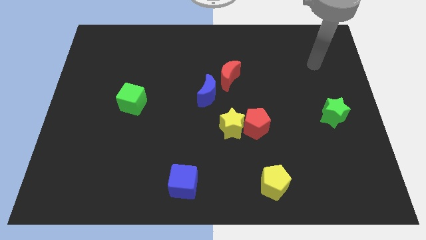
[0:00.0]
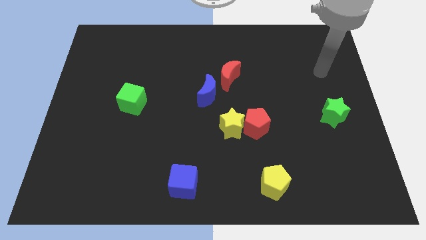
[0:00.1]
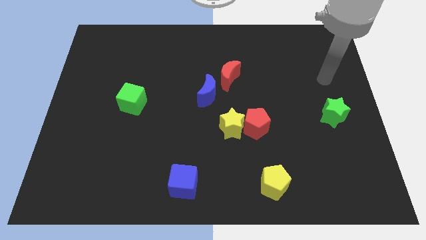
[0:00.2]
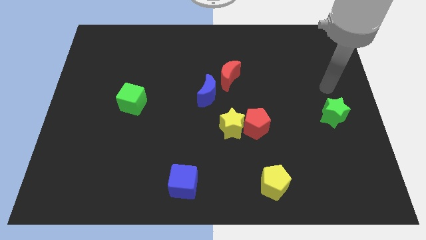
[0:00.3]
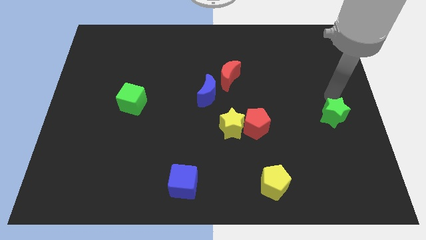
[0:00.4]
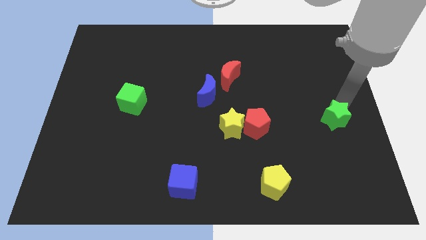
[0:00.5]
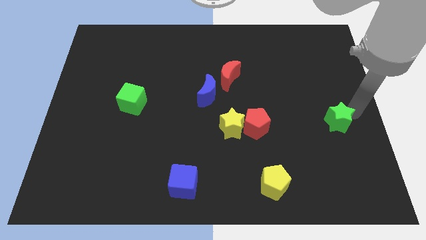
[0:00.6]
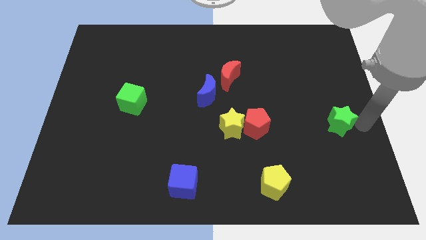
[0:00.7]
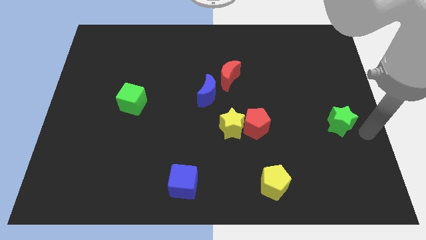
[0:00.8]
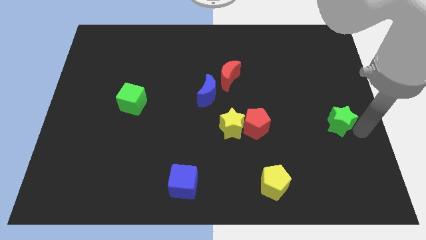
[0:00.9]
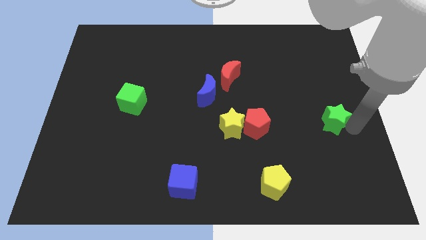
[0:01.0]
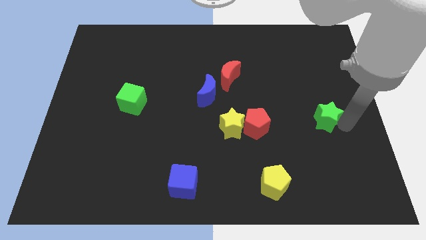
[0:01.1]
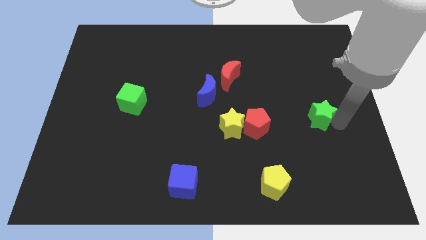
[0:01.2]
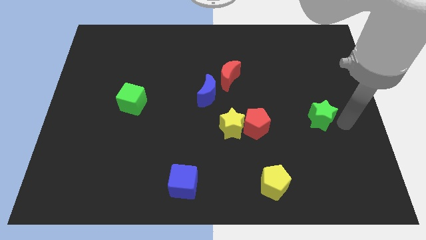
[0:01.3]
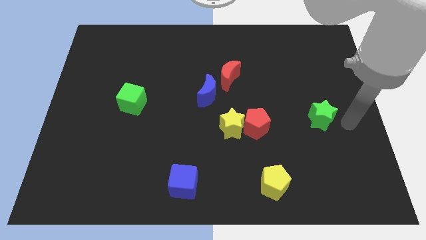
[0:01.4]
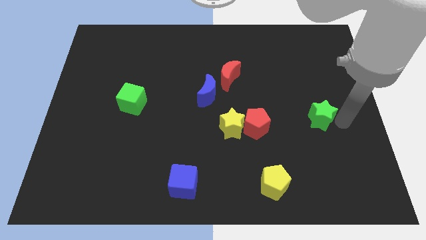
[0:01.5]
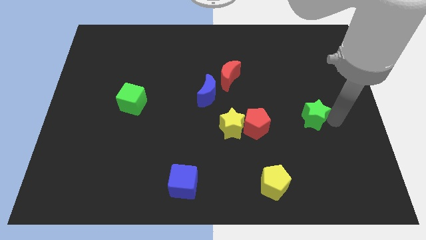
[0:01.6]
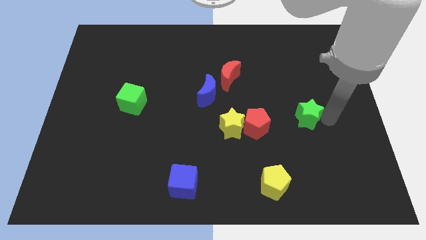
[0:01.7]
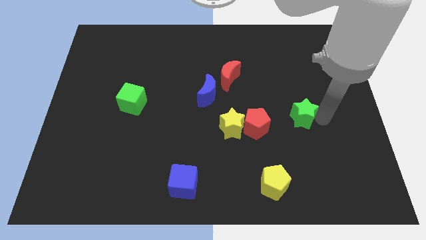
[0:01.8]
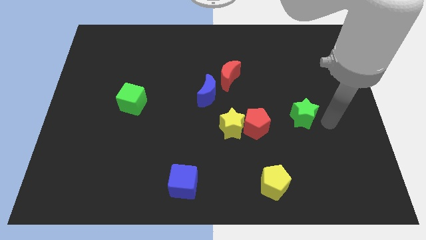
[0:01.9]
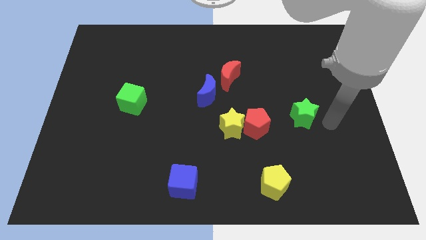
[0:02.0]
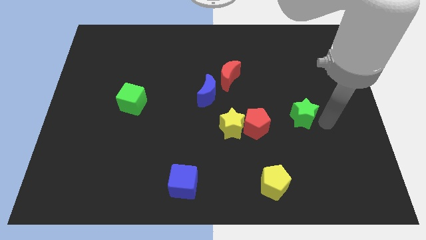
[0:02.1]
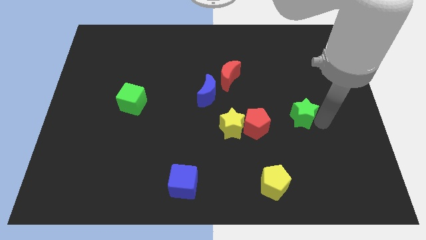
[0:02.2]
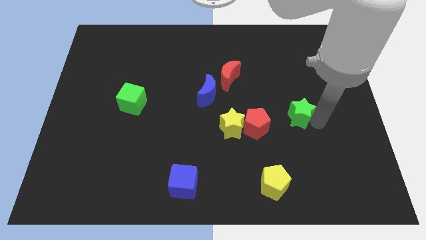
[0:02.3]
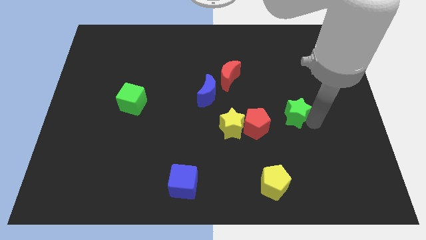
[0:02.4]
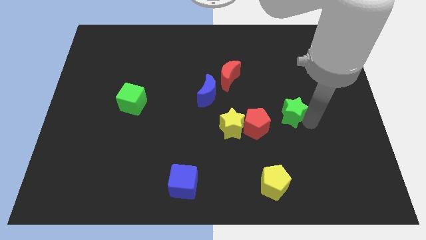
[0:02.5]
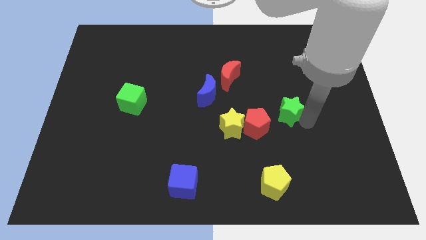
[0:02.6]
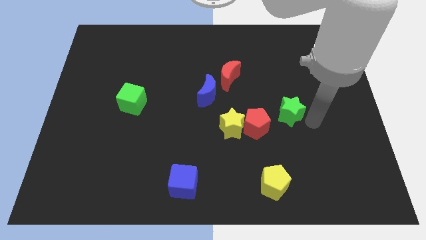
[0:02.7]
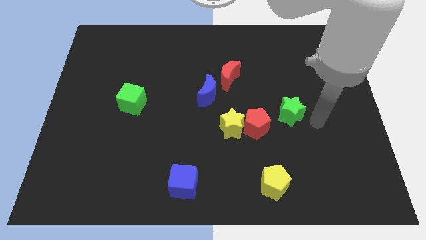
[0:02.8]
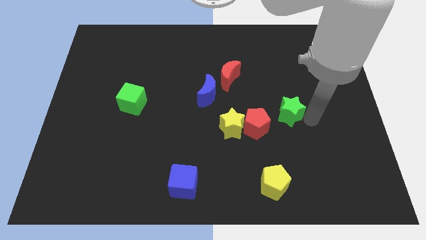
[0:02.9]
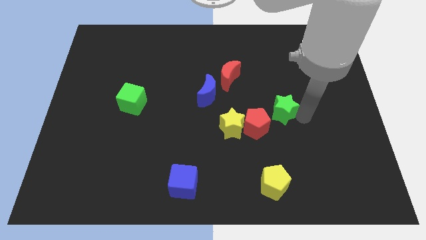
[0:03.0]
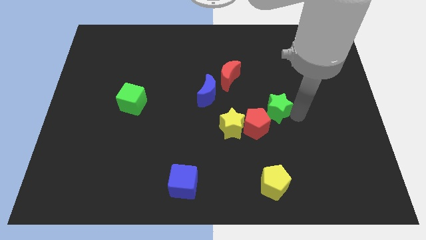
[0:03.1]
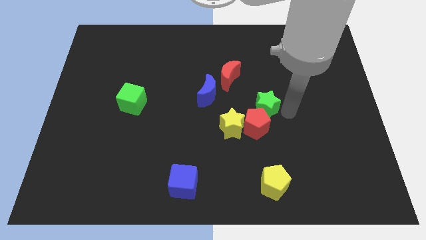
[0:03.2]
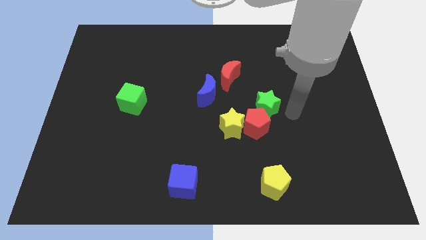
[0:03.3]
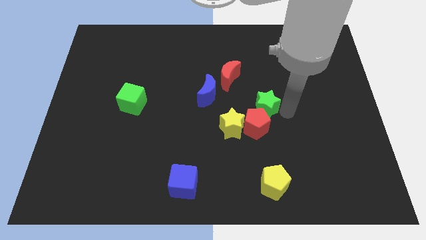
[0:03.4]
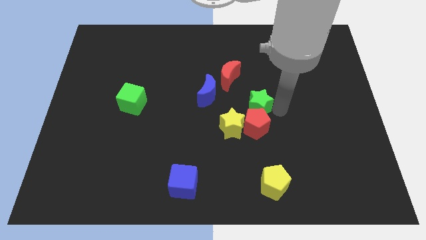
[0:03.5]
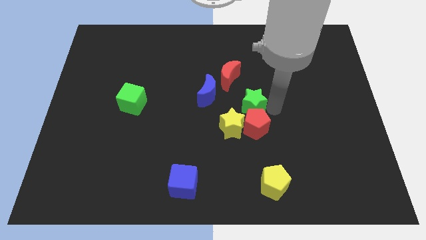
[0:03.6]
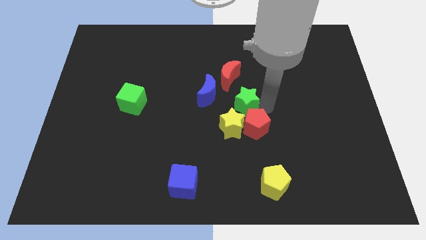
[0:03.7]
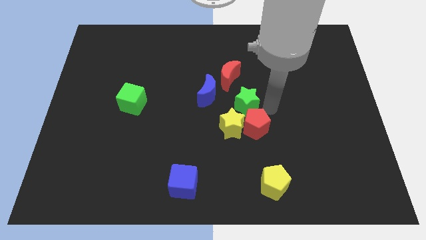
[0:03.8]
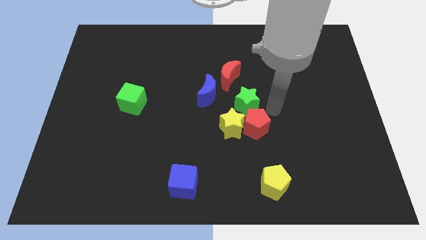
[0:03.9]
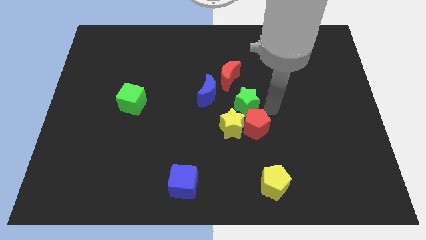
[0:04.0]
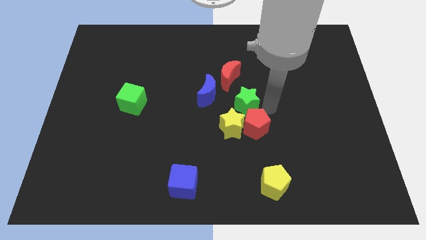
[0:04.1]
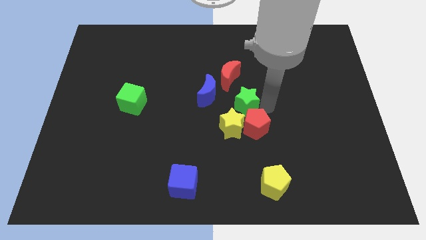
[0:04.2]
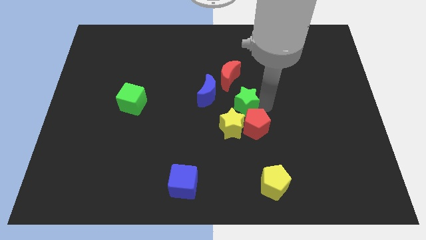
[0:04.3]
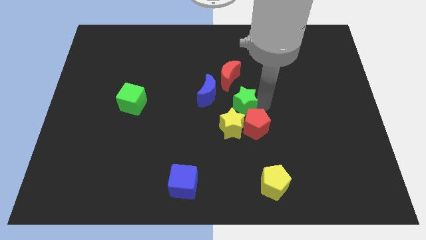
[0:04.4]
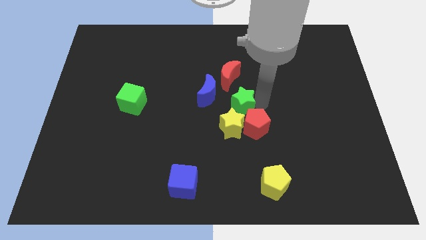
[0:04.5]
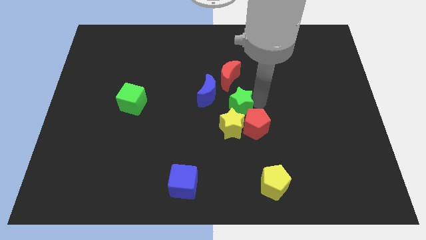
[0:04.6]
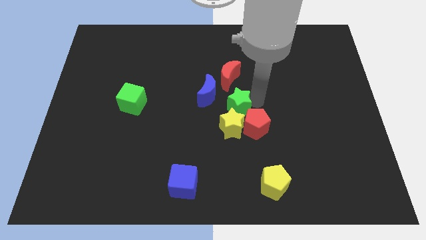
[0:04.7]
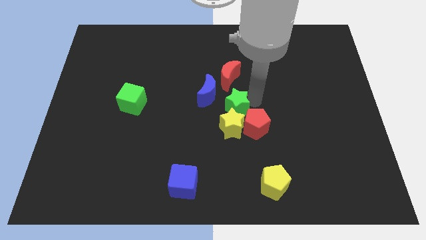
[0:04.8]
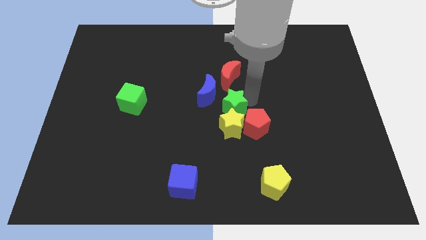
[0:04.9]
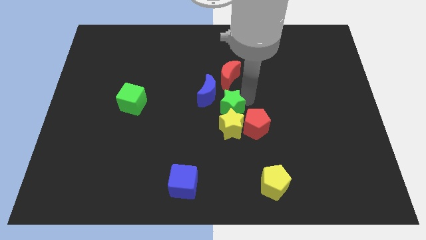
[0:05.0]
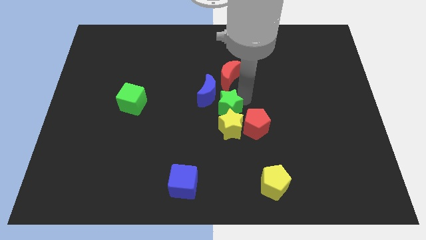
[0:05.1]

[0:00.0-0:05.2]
push the green star to the blue moon

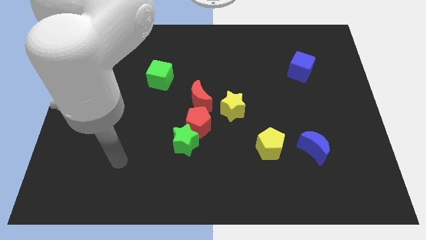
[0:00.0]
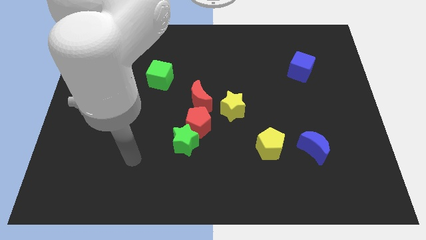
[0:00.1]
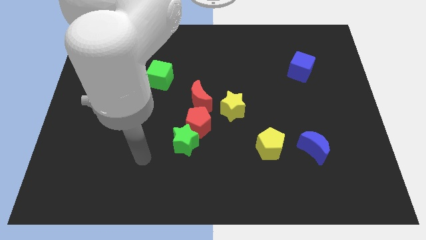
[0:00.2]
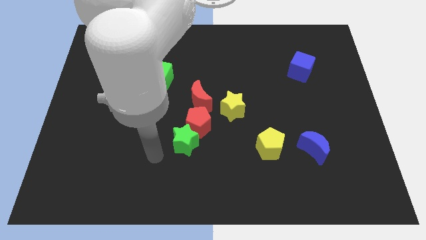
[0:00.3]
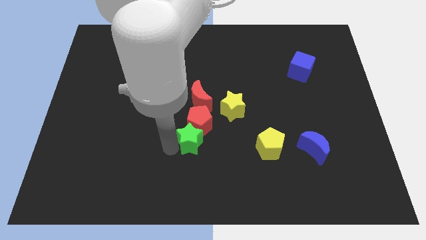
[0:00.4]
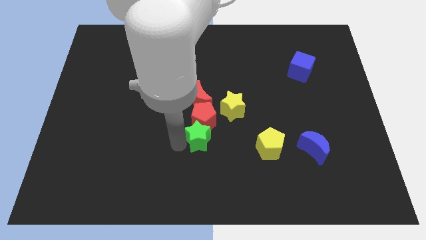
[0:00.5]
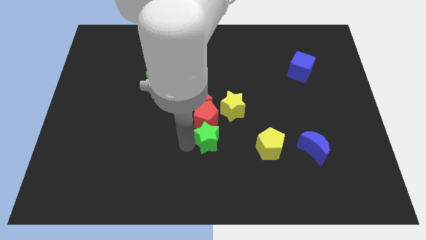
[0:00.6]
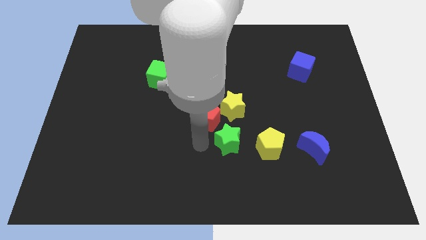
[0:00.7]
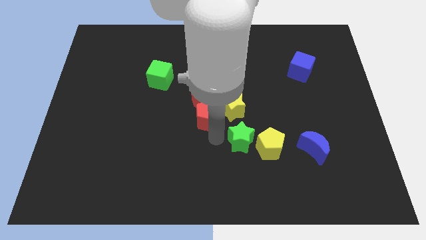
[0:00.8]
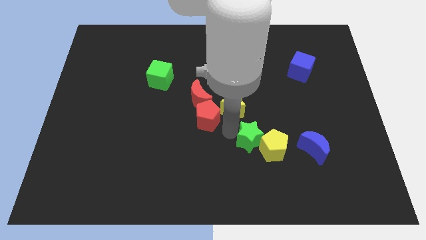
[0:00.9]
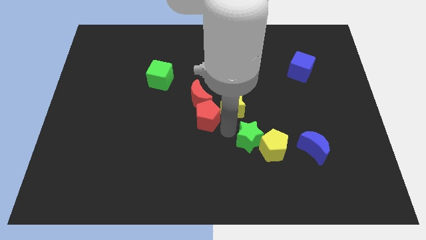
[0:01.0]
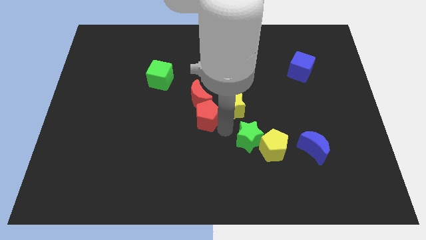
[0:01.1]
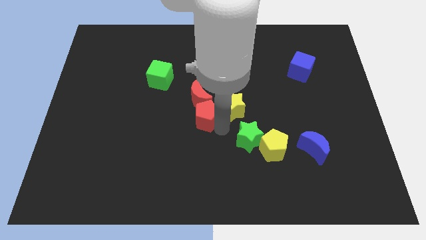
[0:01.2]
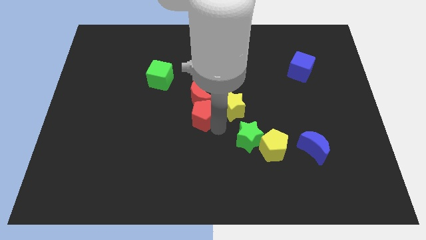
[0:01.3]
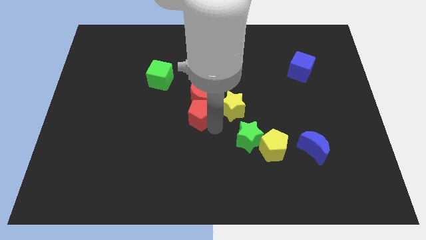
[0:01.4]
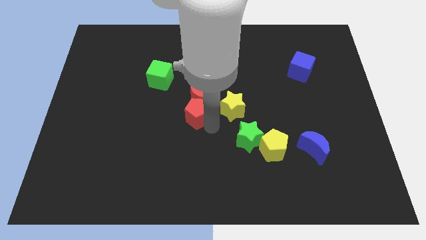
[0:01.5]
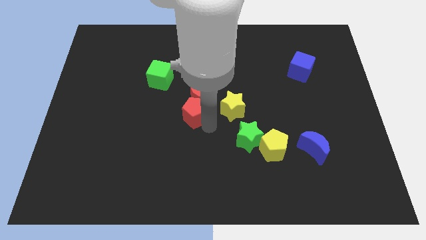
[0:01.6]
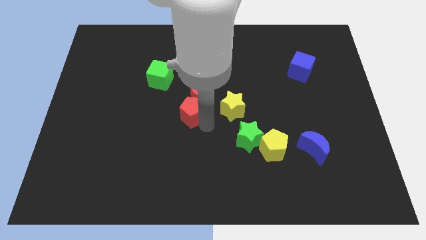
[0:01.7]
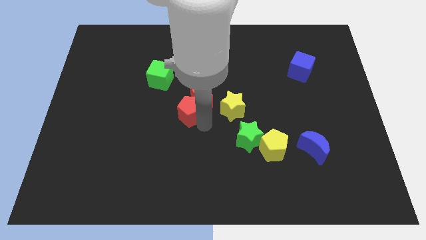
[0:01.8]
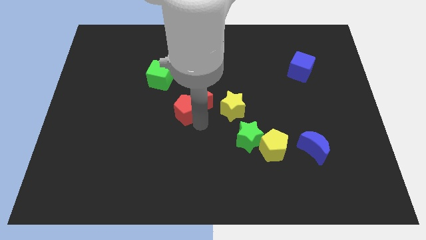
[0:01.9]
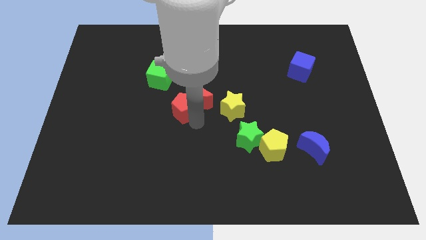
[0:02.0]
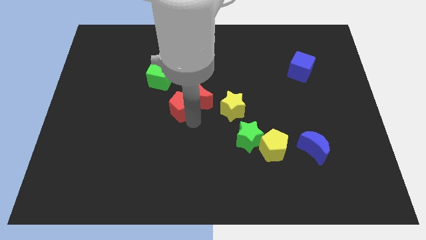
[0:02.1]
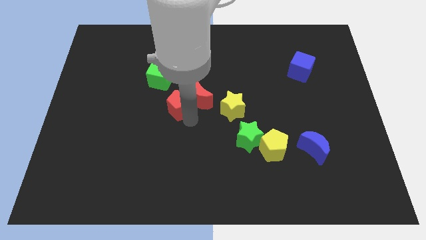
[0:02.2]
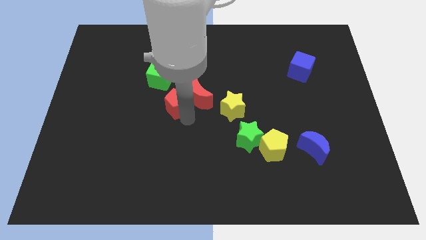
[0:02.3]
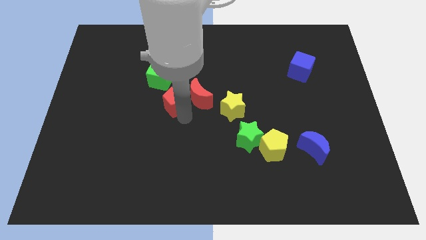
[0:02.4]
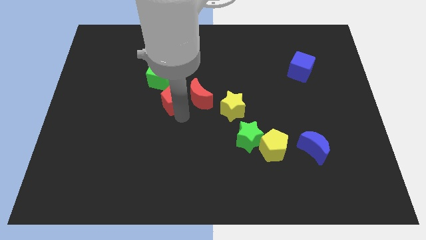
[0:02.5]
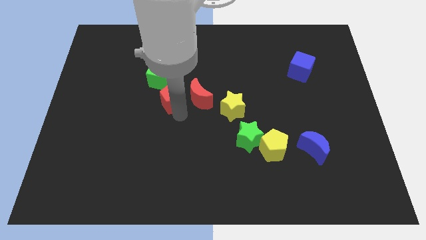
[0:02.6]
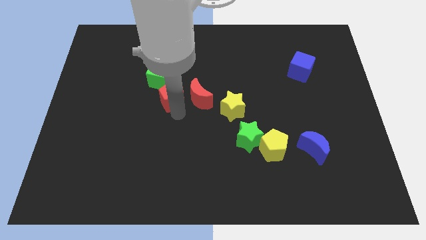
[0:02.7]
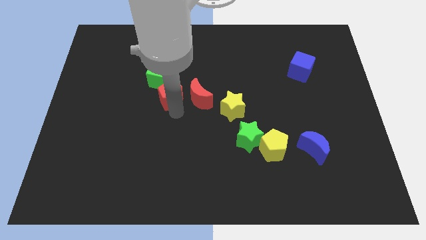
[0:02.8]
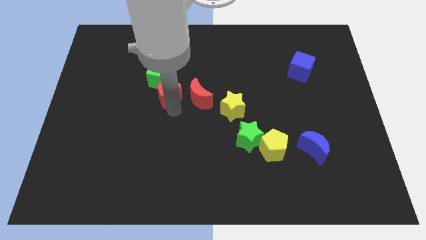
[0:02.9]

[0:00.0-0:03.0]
push the red pentagon next to the green cube
